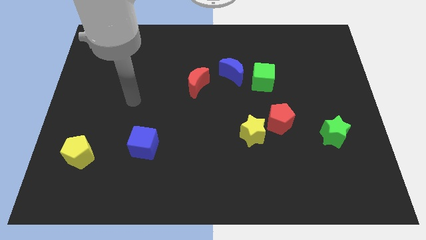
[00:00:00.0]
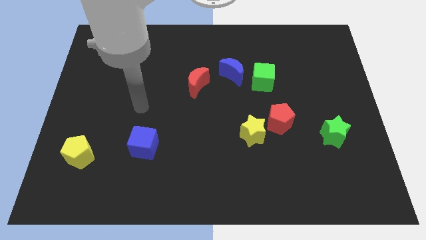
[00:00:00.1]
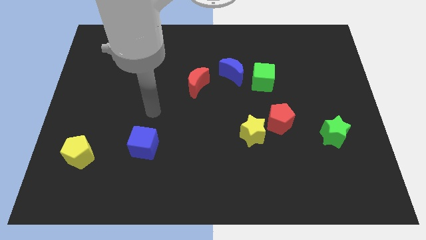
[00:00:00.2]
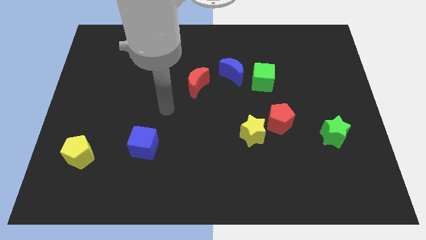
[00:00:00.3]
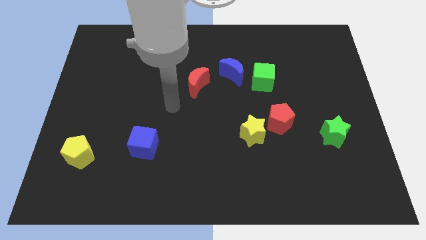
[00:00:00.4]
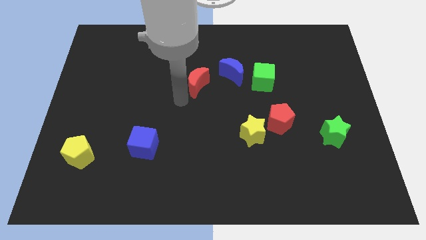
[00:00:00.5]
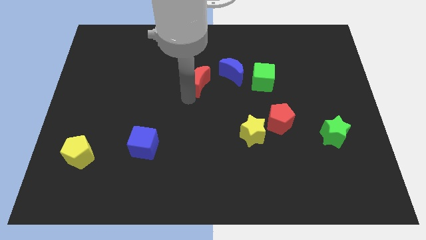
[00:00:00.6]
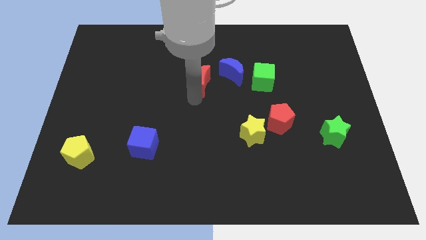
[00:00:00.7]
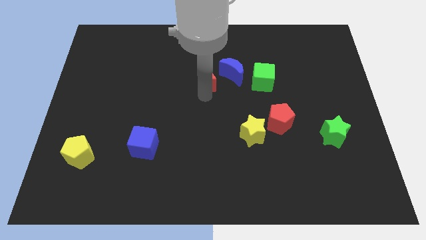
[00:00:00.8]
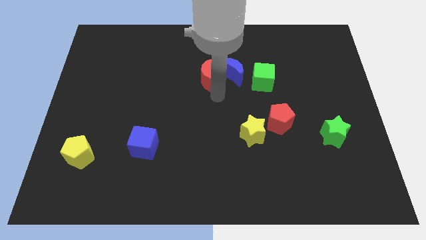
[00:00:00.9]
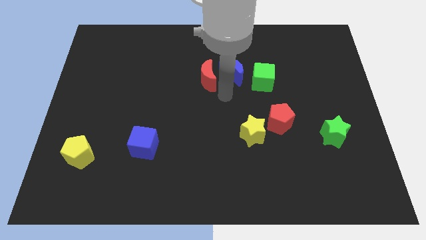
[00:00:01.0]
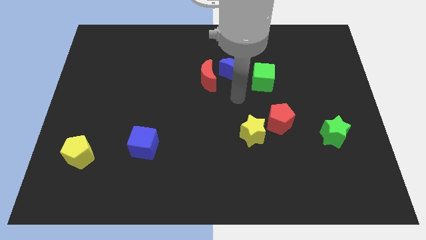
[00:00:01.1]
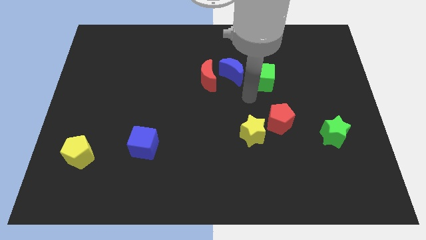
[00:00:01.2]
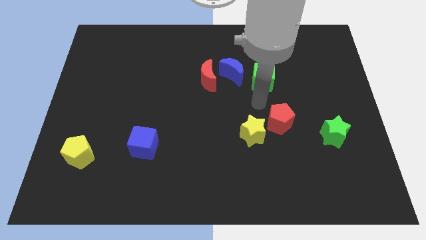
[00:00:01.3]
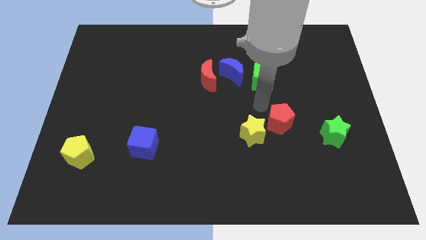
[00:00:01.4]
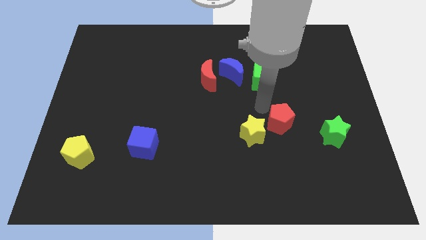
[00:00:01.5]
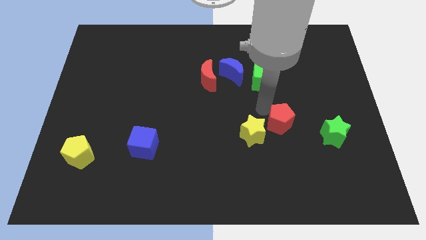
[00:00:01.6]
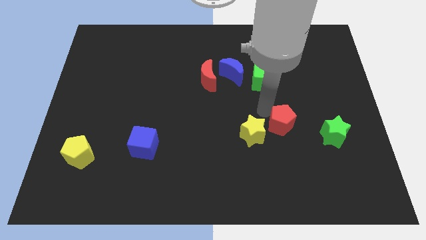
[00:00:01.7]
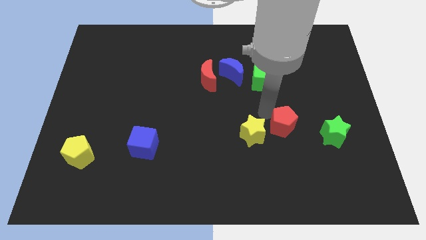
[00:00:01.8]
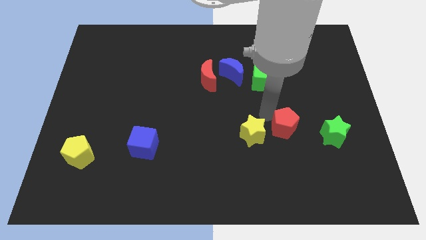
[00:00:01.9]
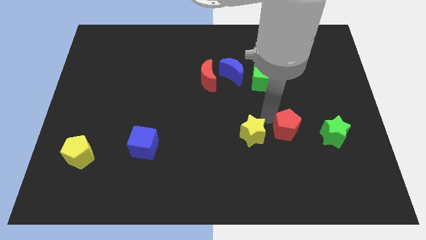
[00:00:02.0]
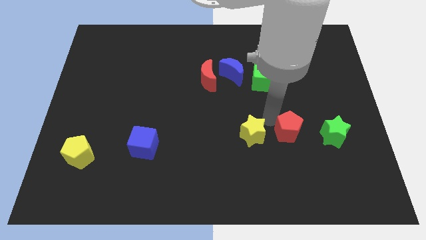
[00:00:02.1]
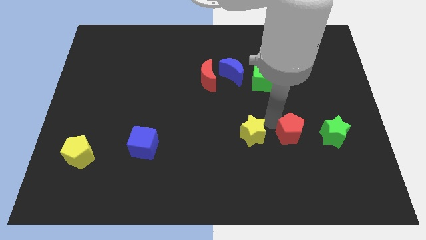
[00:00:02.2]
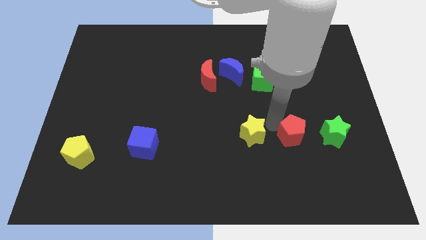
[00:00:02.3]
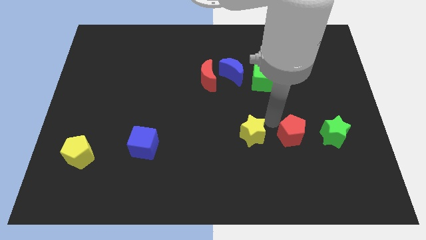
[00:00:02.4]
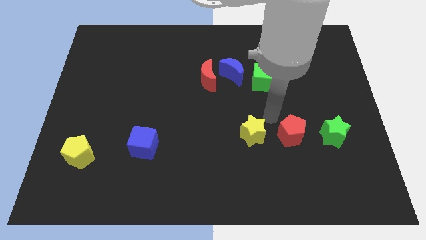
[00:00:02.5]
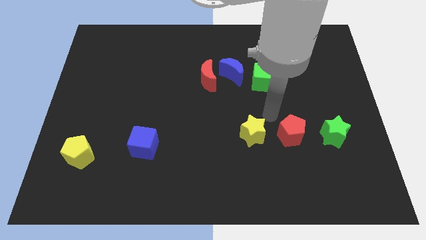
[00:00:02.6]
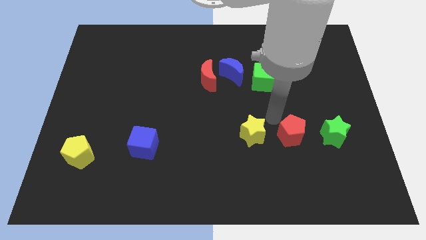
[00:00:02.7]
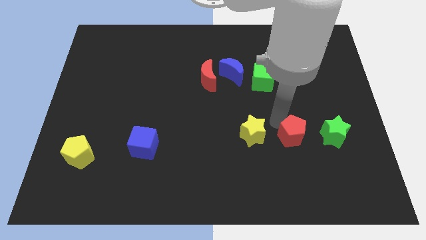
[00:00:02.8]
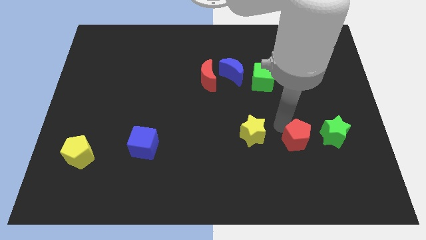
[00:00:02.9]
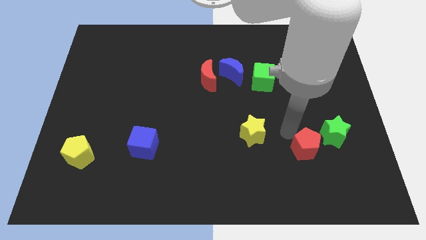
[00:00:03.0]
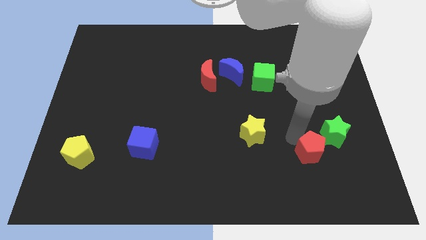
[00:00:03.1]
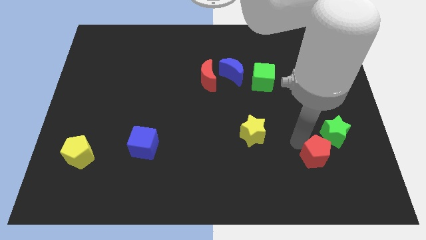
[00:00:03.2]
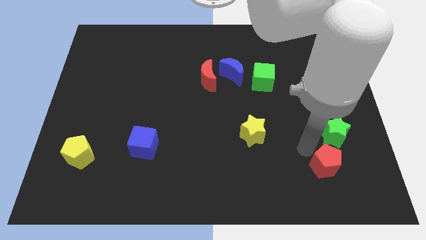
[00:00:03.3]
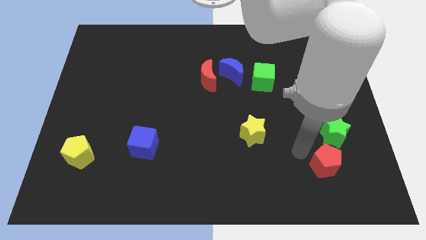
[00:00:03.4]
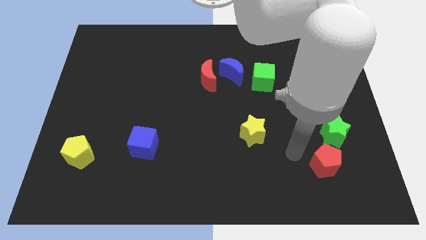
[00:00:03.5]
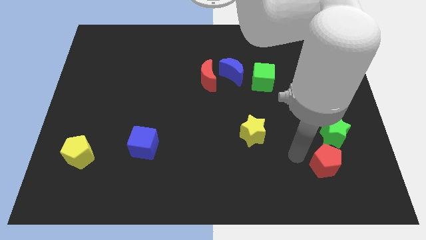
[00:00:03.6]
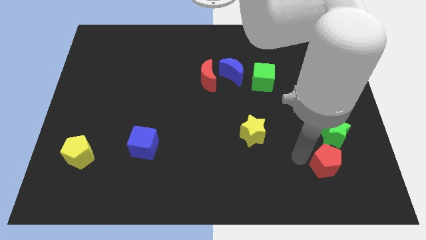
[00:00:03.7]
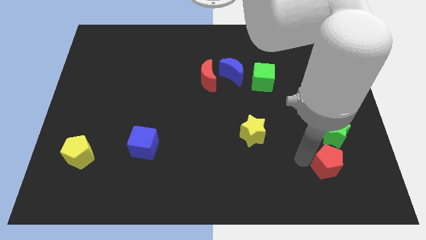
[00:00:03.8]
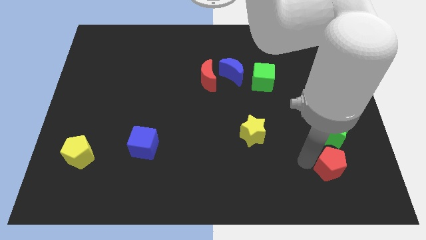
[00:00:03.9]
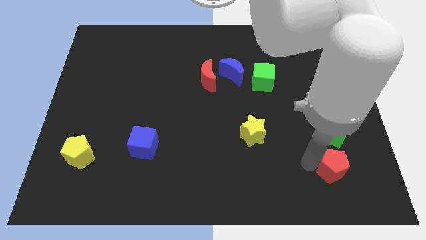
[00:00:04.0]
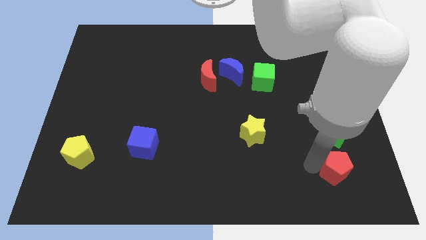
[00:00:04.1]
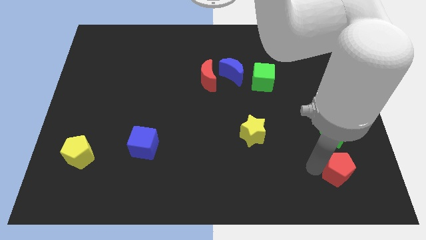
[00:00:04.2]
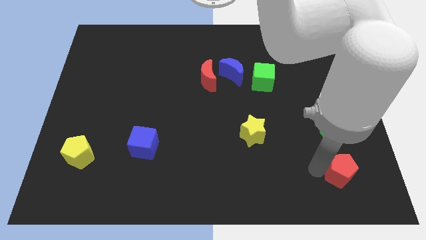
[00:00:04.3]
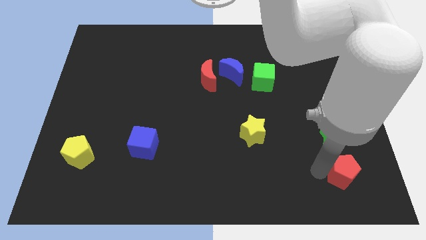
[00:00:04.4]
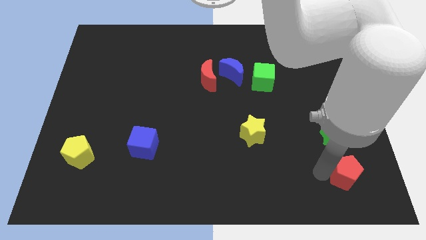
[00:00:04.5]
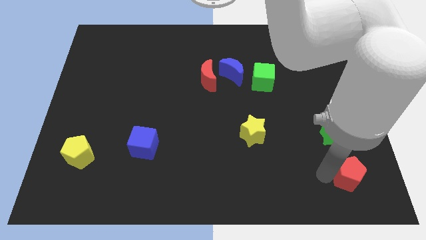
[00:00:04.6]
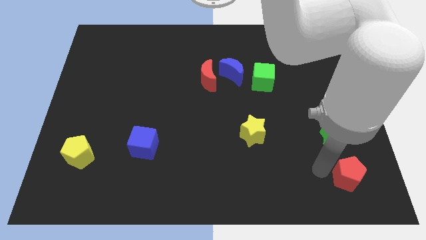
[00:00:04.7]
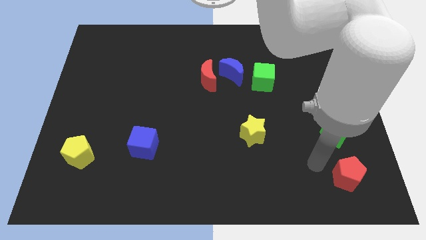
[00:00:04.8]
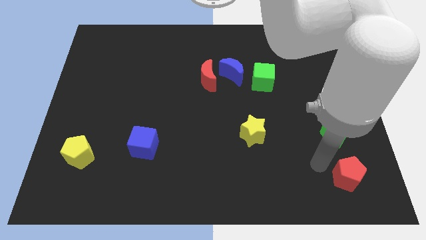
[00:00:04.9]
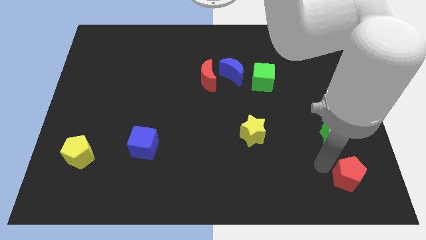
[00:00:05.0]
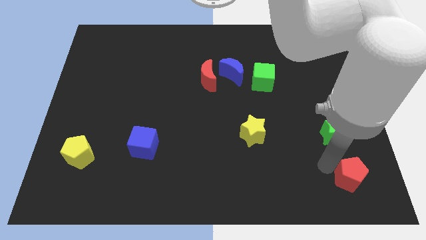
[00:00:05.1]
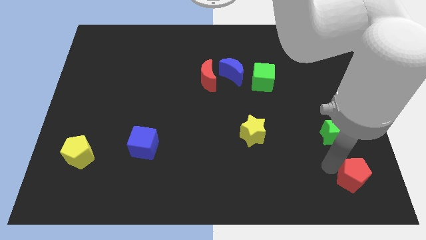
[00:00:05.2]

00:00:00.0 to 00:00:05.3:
put the red pentagon to the bottom right

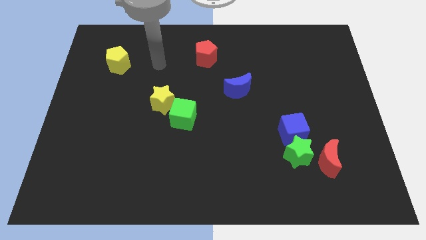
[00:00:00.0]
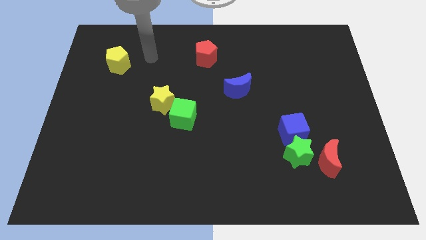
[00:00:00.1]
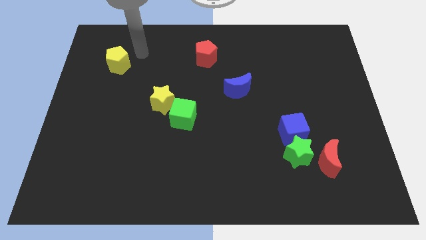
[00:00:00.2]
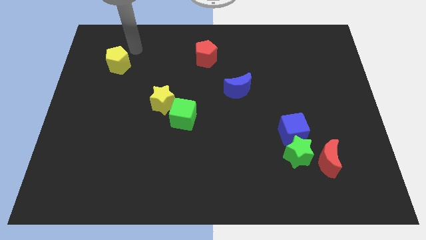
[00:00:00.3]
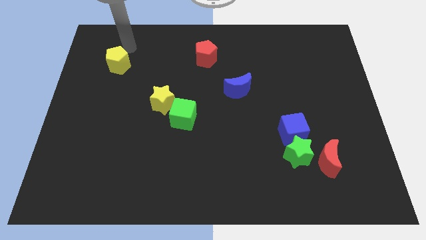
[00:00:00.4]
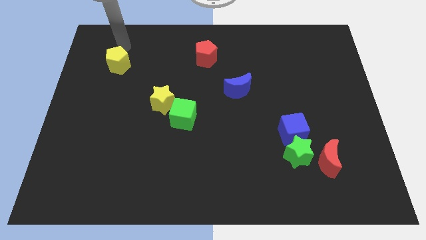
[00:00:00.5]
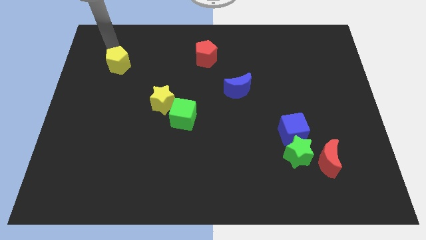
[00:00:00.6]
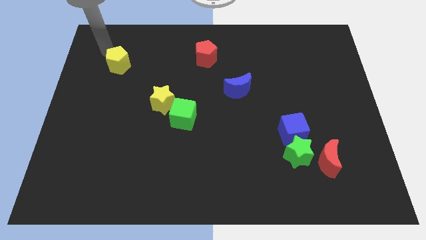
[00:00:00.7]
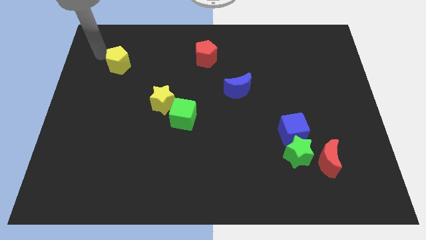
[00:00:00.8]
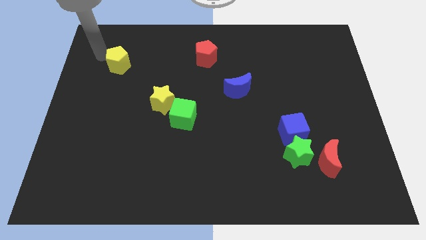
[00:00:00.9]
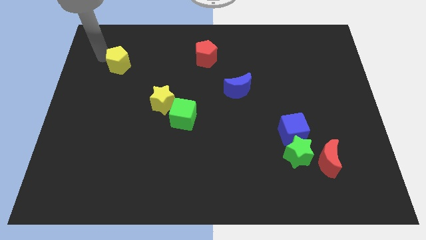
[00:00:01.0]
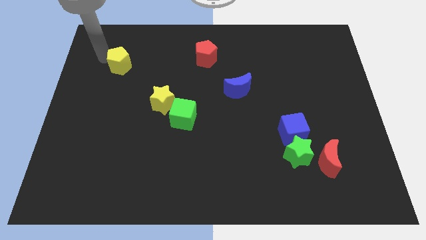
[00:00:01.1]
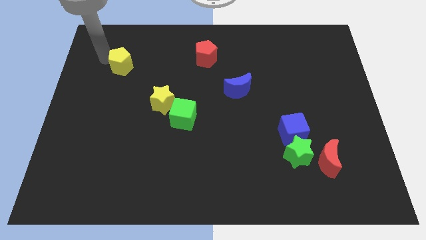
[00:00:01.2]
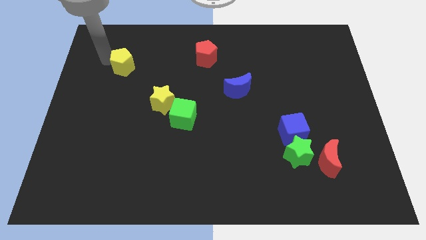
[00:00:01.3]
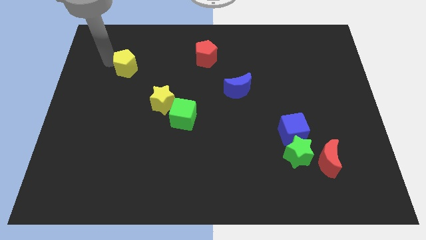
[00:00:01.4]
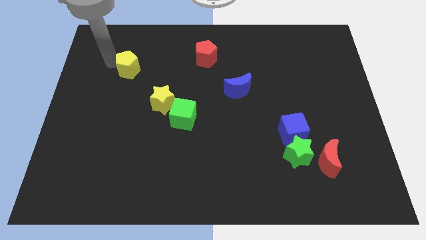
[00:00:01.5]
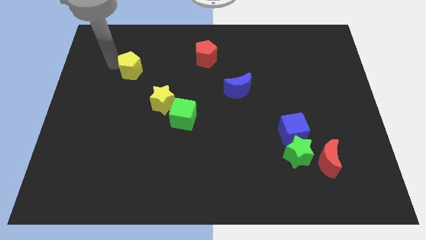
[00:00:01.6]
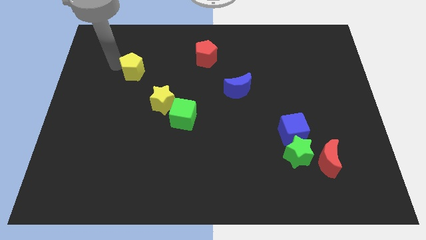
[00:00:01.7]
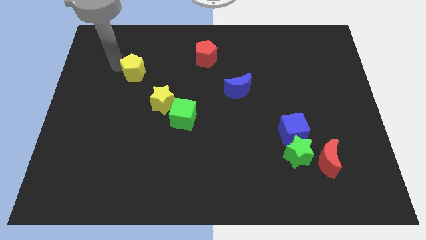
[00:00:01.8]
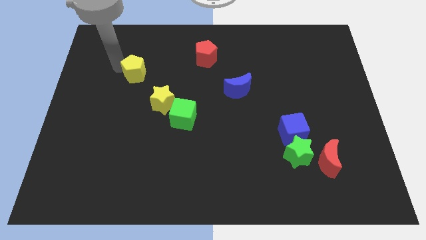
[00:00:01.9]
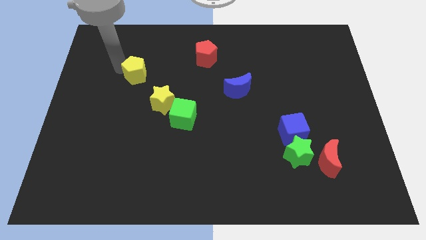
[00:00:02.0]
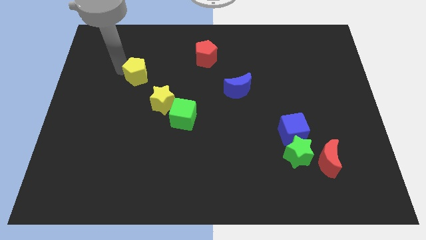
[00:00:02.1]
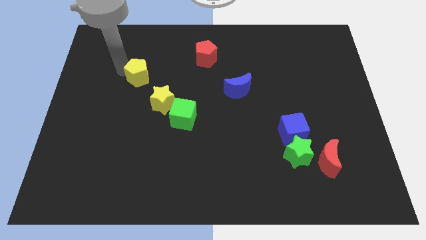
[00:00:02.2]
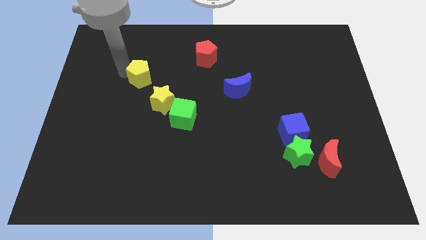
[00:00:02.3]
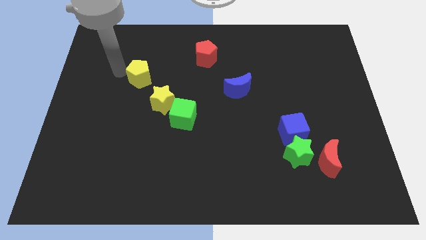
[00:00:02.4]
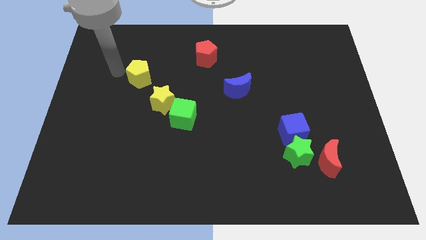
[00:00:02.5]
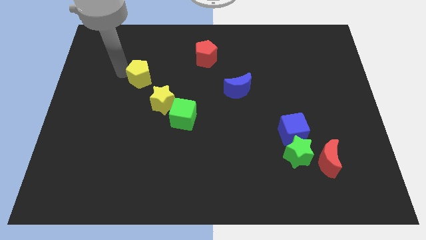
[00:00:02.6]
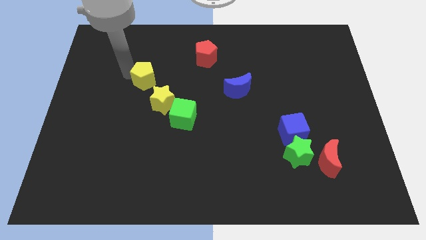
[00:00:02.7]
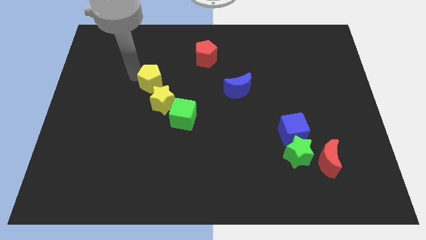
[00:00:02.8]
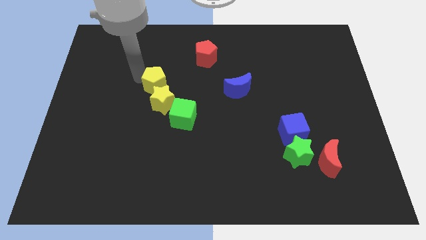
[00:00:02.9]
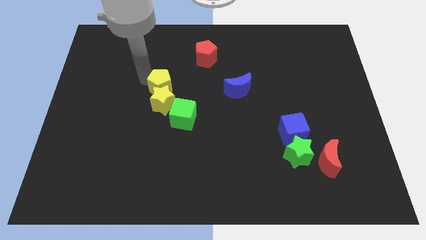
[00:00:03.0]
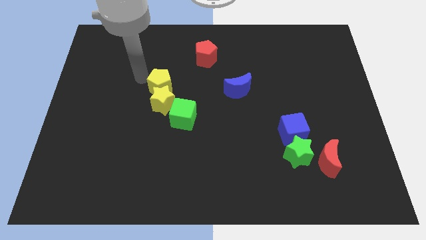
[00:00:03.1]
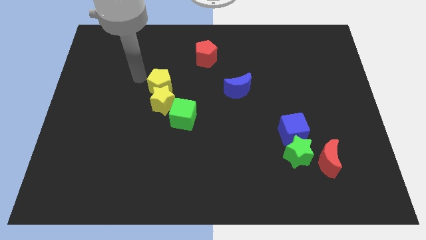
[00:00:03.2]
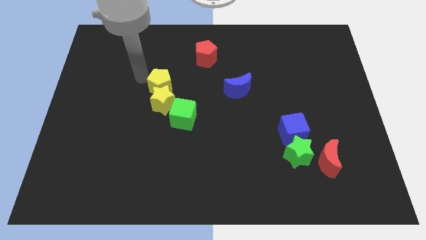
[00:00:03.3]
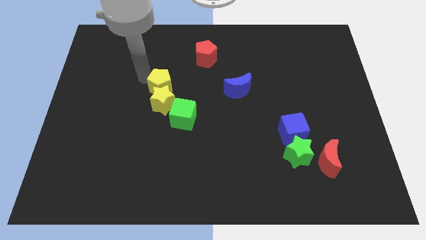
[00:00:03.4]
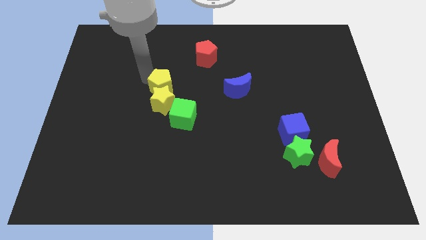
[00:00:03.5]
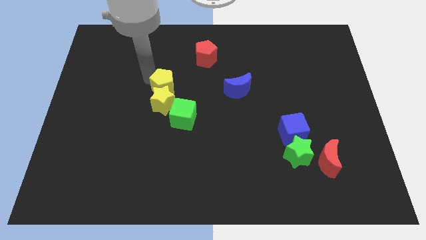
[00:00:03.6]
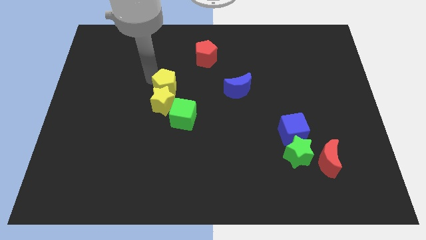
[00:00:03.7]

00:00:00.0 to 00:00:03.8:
put the yellow pentagon to the middle of the board
